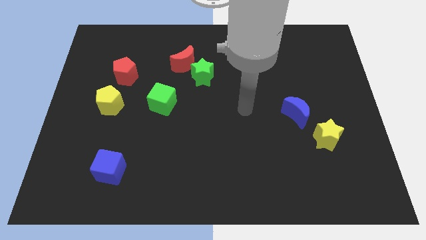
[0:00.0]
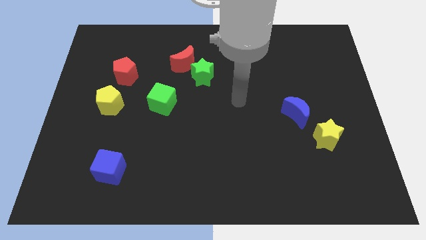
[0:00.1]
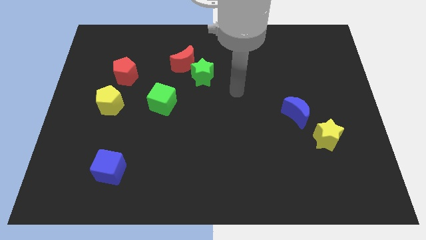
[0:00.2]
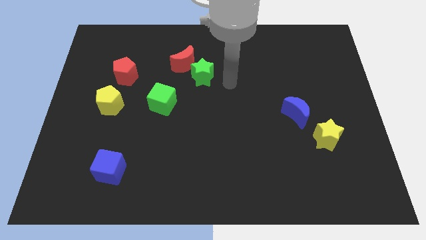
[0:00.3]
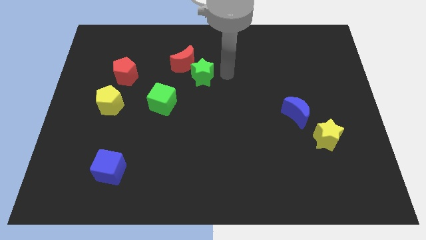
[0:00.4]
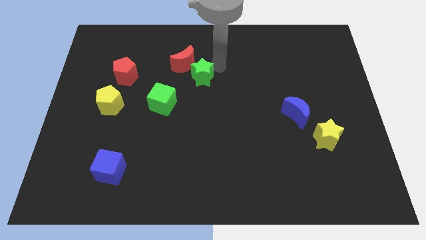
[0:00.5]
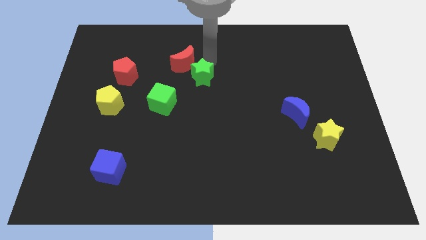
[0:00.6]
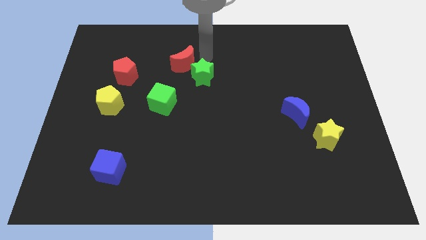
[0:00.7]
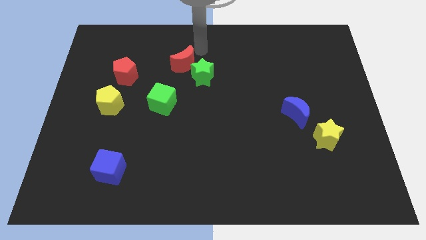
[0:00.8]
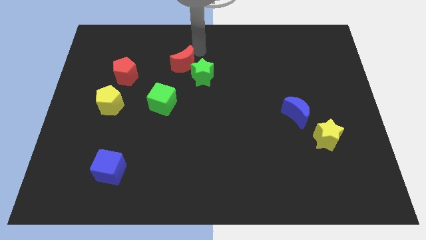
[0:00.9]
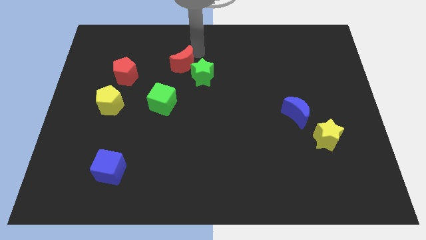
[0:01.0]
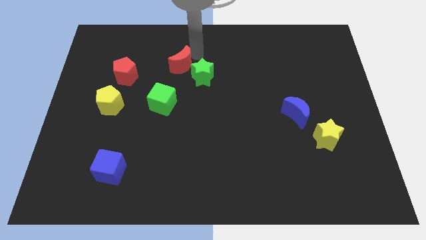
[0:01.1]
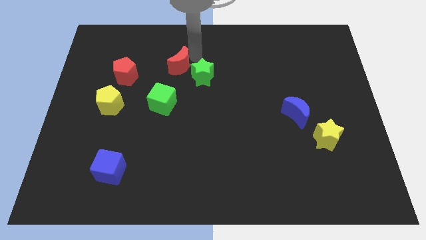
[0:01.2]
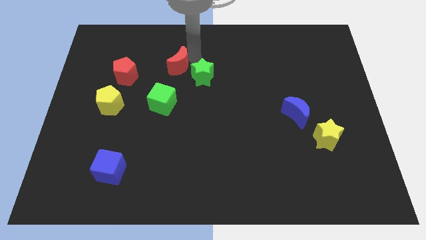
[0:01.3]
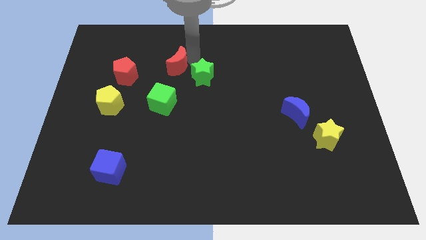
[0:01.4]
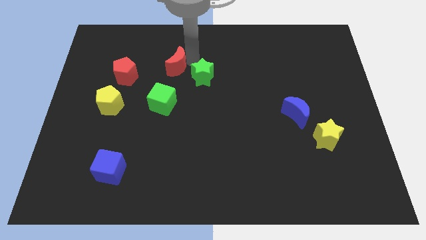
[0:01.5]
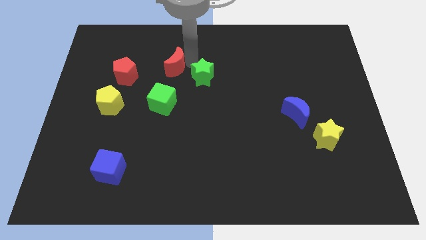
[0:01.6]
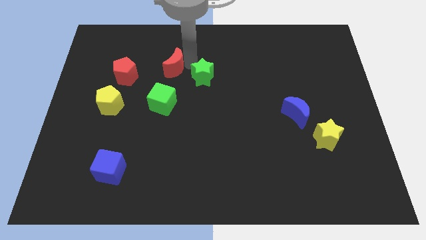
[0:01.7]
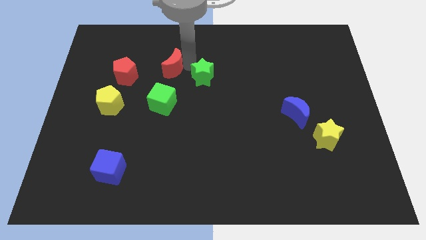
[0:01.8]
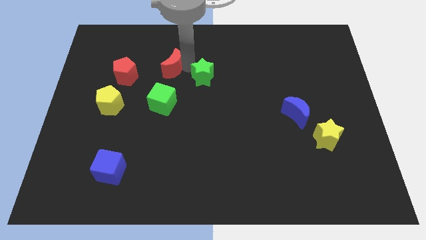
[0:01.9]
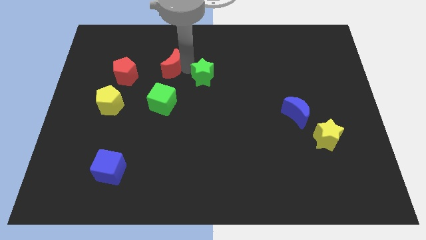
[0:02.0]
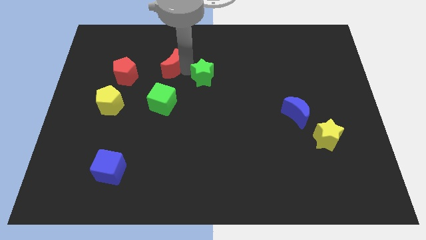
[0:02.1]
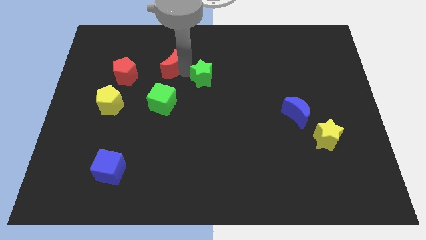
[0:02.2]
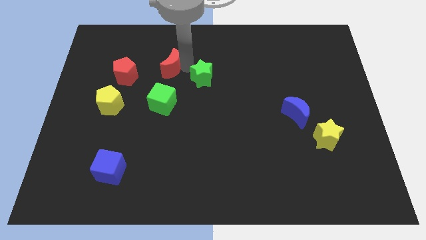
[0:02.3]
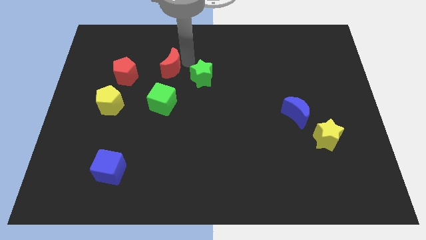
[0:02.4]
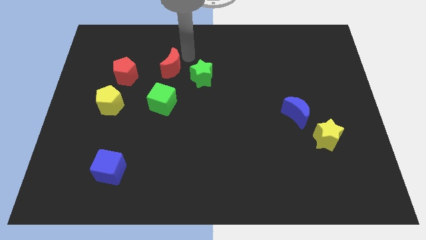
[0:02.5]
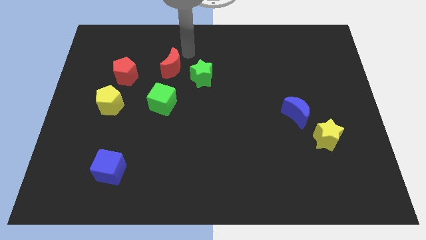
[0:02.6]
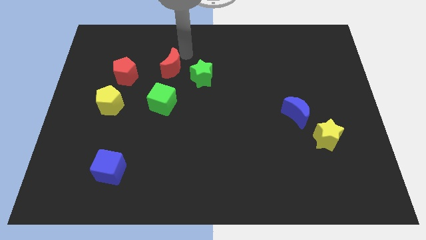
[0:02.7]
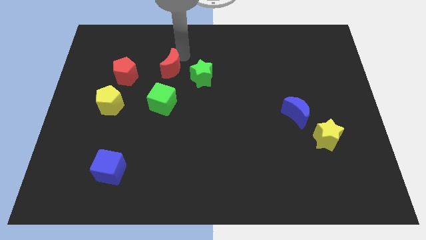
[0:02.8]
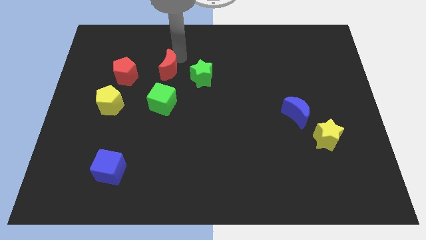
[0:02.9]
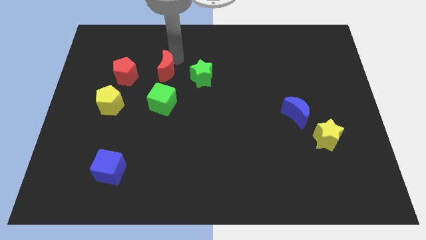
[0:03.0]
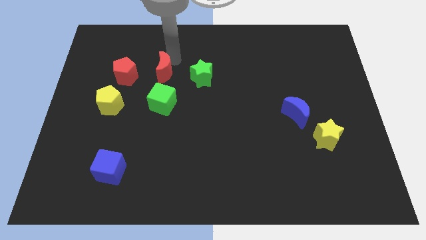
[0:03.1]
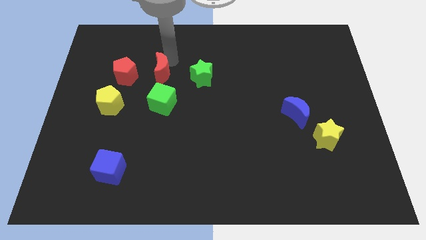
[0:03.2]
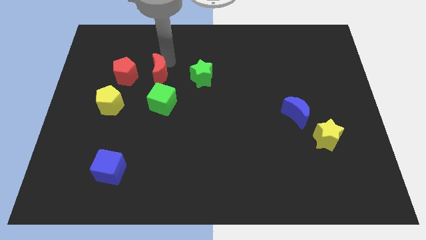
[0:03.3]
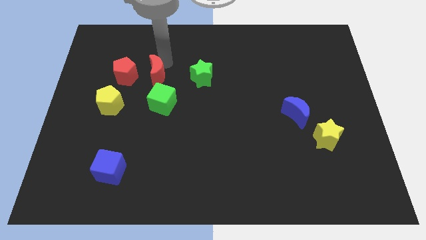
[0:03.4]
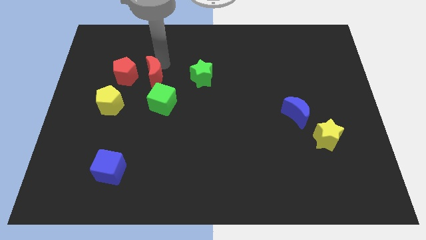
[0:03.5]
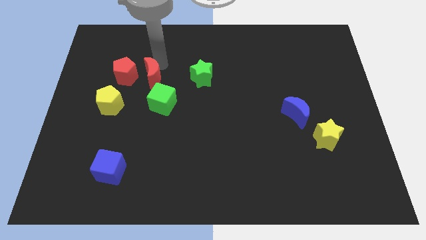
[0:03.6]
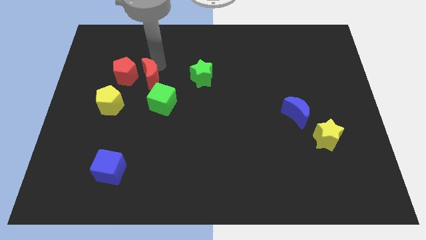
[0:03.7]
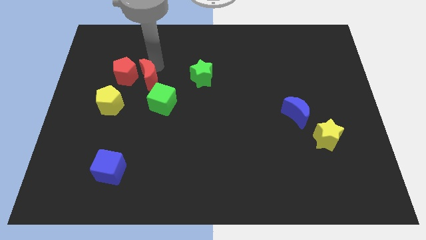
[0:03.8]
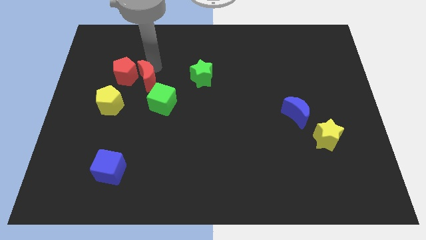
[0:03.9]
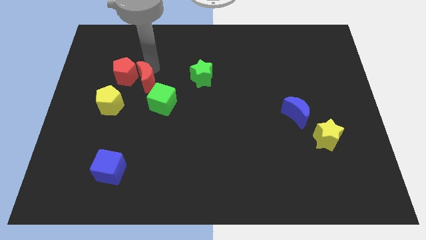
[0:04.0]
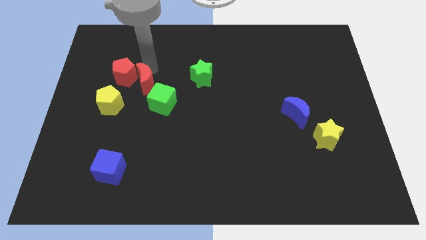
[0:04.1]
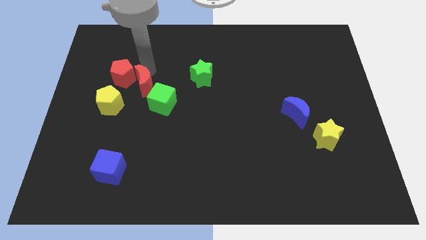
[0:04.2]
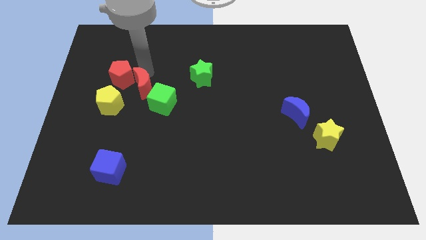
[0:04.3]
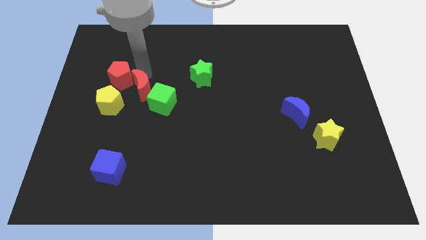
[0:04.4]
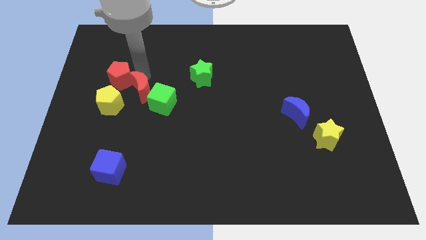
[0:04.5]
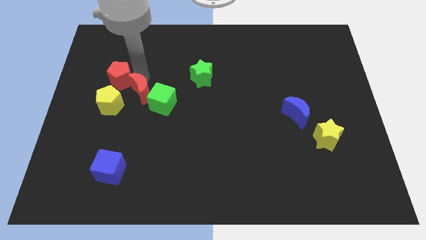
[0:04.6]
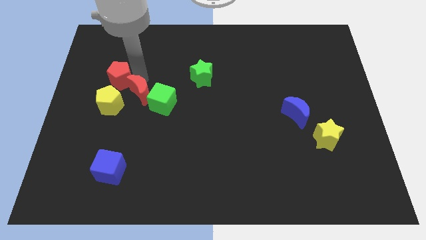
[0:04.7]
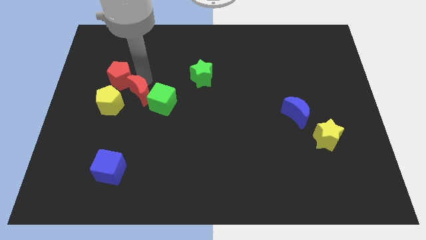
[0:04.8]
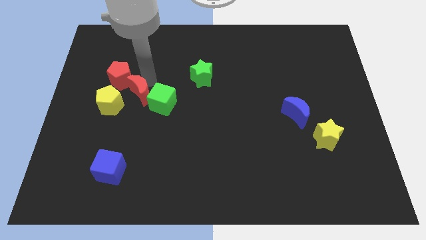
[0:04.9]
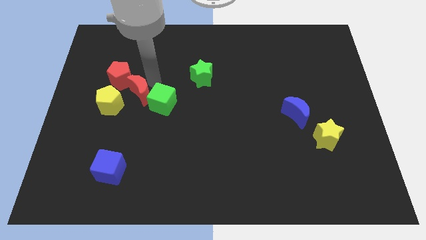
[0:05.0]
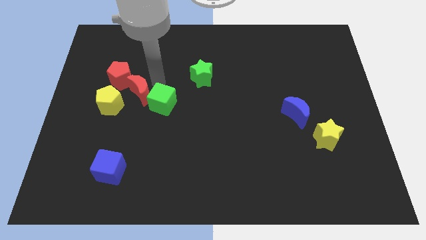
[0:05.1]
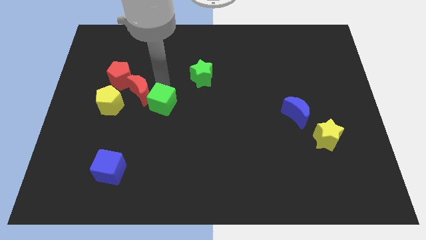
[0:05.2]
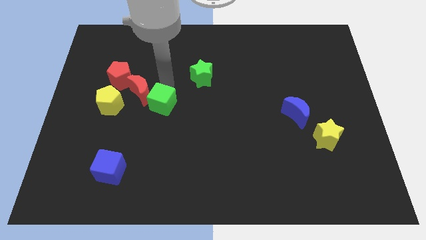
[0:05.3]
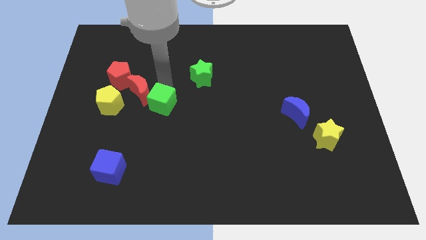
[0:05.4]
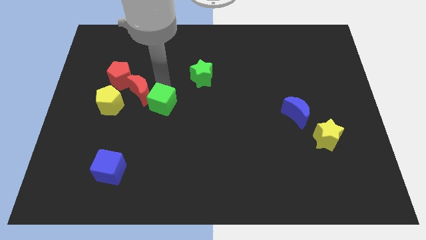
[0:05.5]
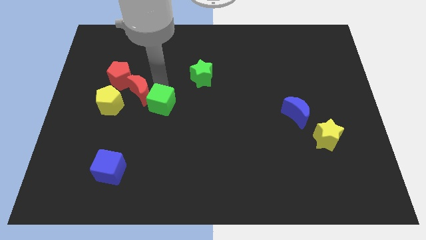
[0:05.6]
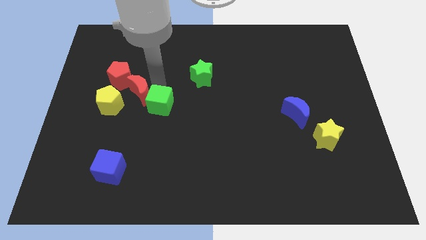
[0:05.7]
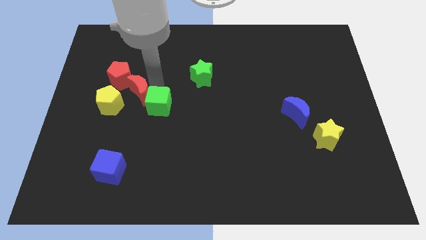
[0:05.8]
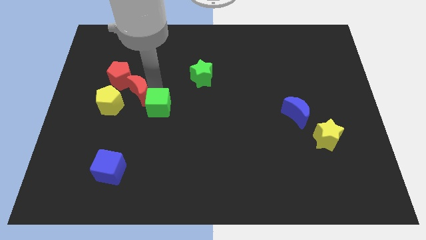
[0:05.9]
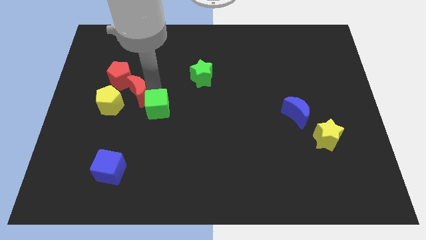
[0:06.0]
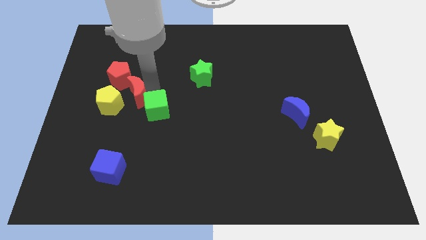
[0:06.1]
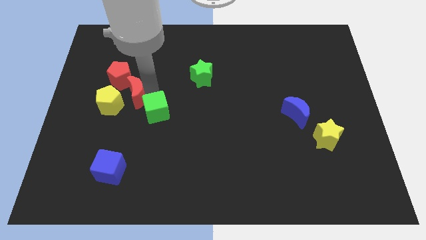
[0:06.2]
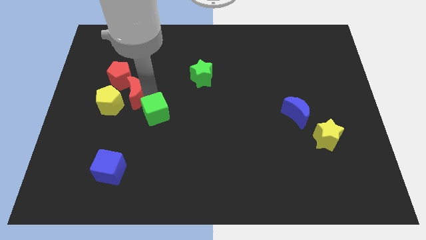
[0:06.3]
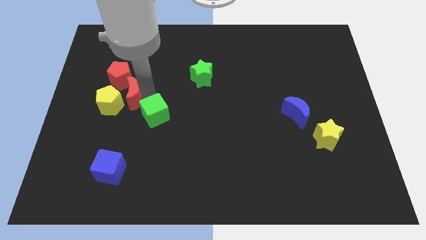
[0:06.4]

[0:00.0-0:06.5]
push the red moon towards the yellow pentagon
